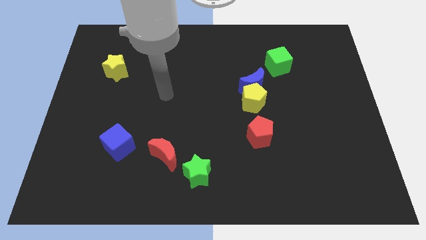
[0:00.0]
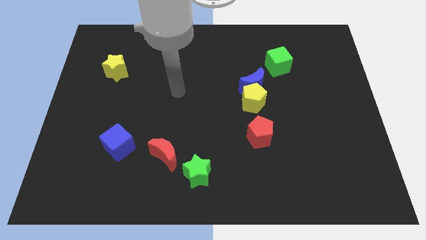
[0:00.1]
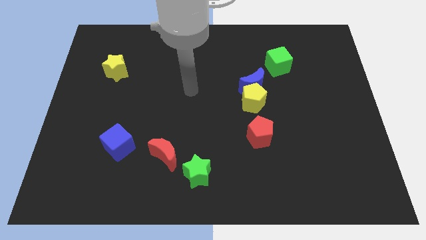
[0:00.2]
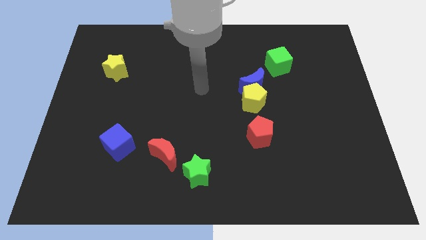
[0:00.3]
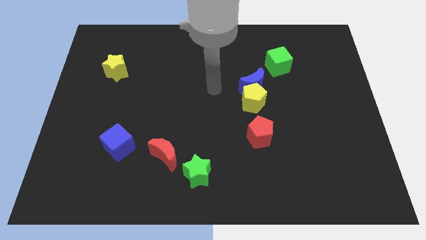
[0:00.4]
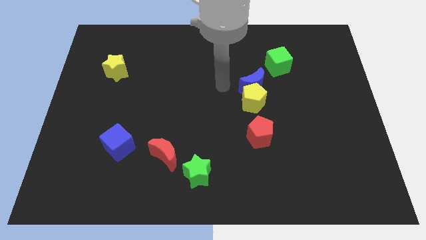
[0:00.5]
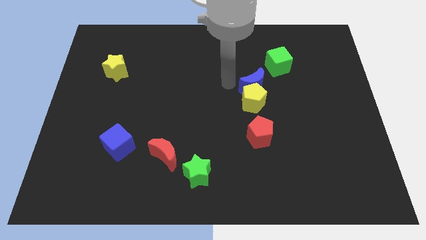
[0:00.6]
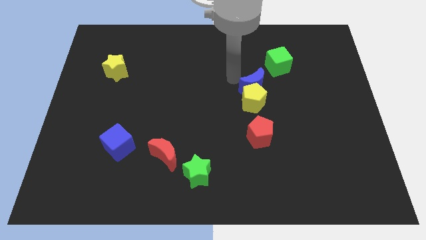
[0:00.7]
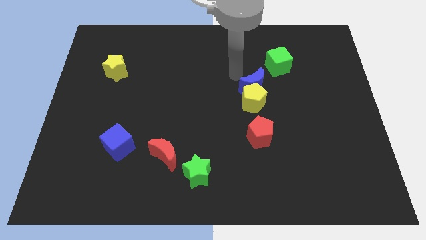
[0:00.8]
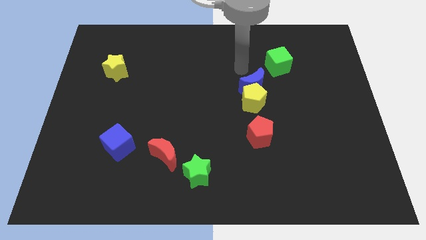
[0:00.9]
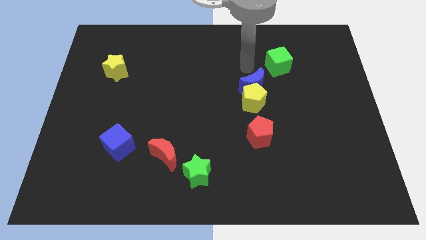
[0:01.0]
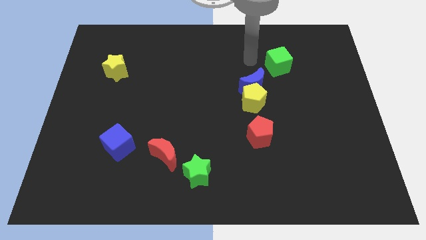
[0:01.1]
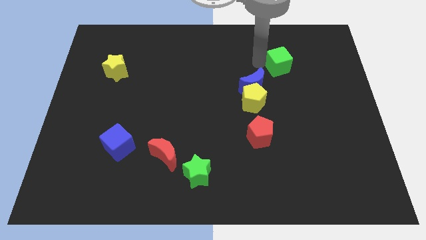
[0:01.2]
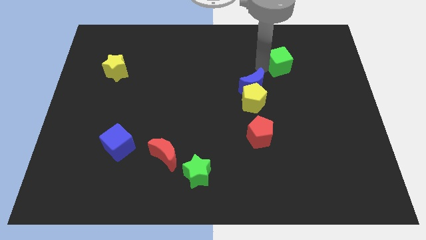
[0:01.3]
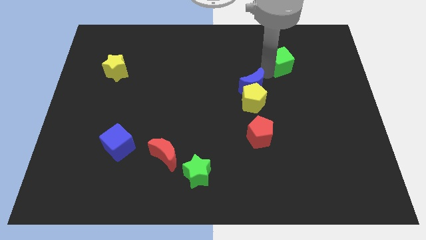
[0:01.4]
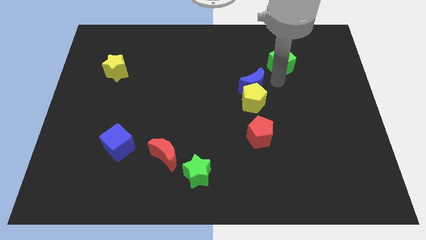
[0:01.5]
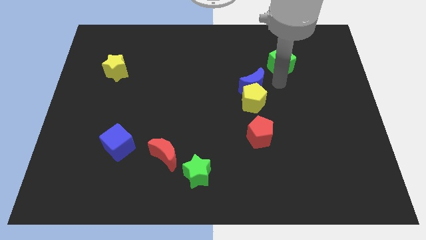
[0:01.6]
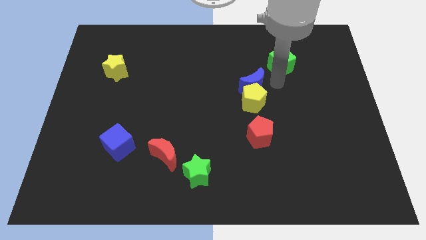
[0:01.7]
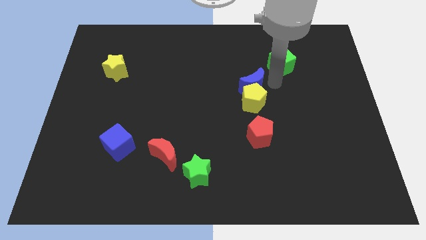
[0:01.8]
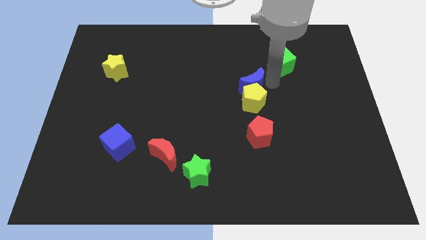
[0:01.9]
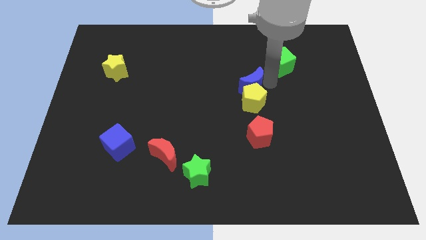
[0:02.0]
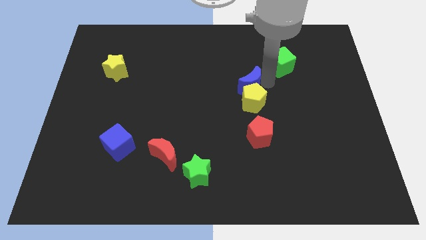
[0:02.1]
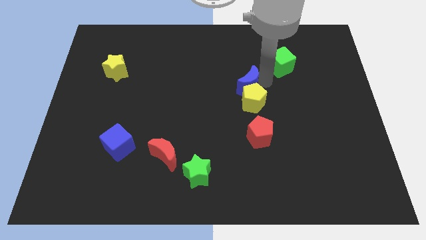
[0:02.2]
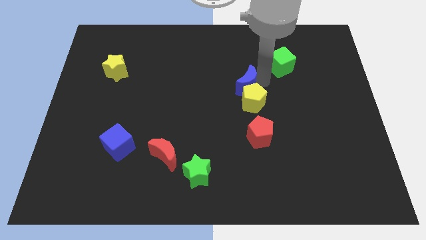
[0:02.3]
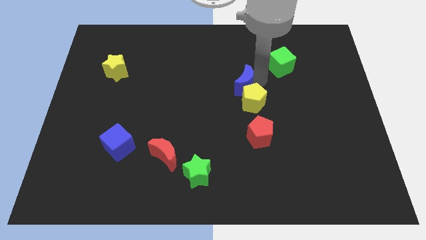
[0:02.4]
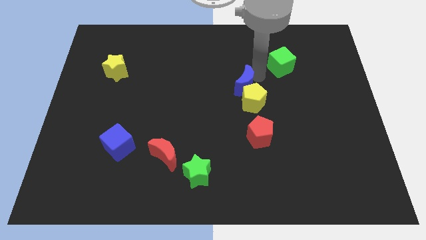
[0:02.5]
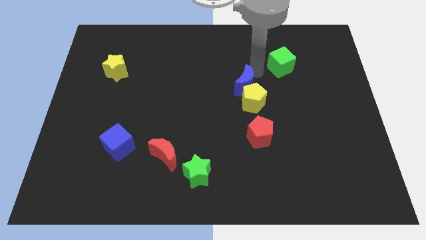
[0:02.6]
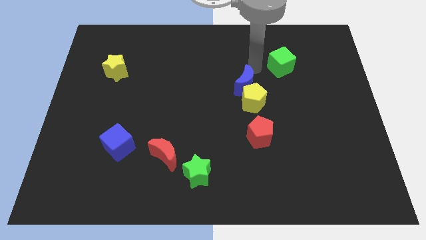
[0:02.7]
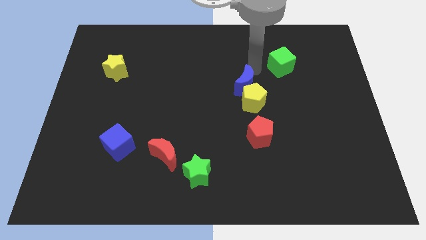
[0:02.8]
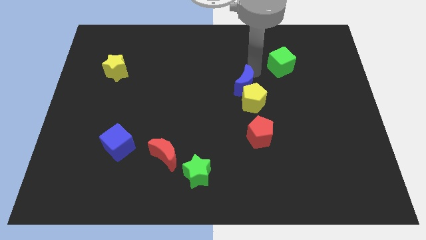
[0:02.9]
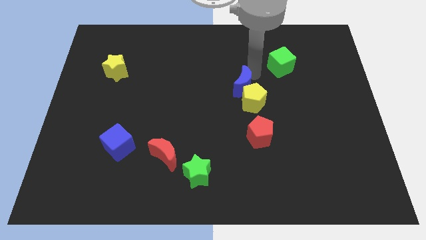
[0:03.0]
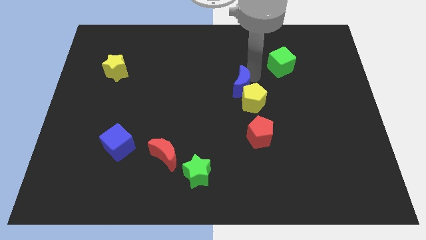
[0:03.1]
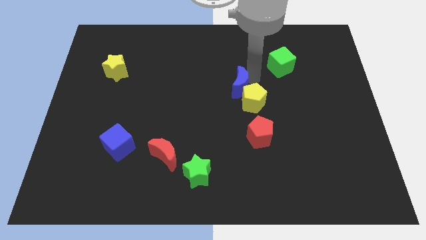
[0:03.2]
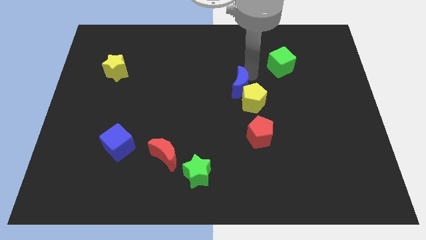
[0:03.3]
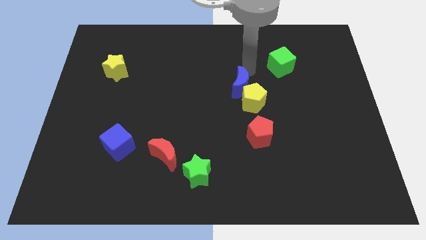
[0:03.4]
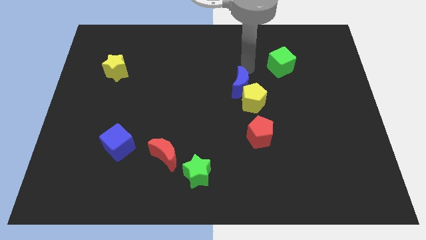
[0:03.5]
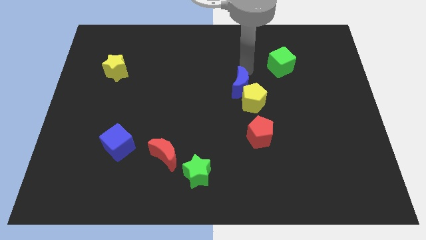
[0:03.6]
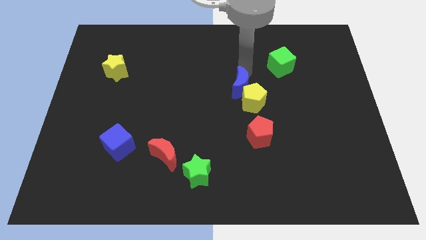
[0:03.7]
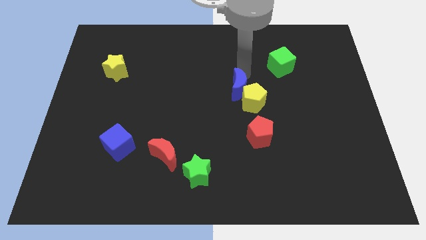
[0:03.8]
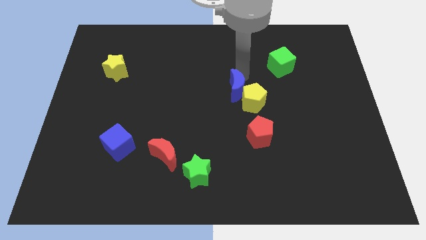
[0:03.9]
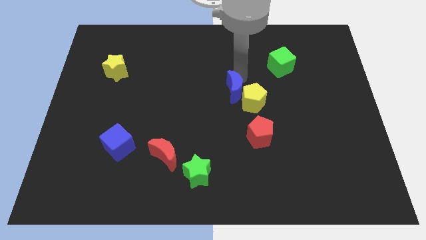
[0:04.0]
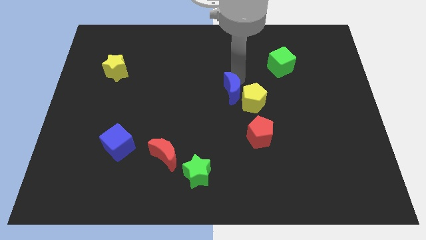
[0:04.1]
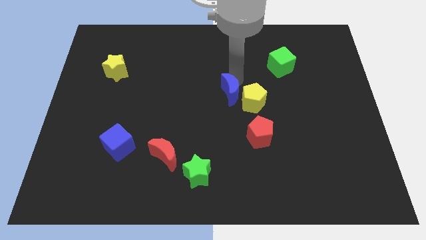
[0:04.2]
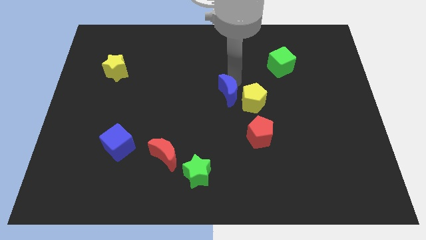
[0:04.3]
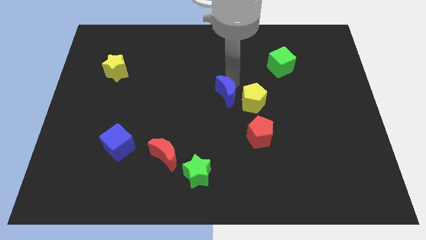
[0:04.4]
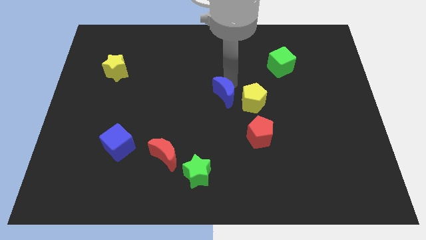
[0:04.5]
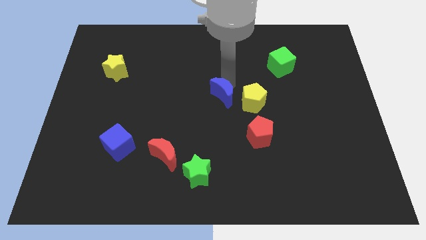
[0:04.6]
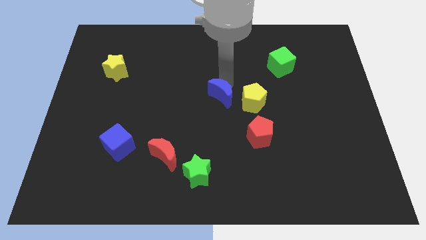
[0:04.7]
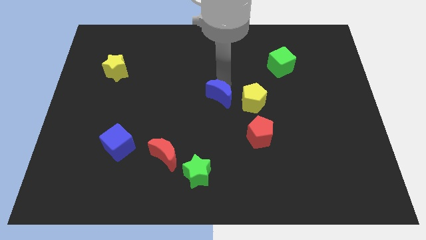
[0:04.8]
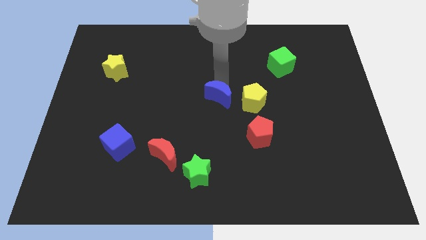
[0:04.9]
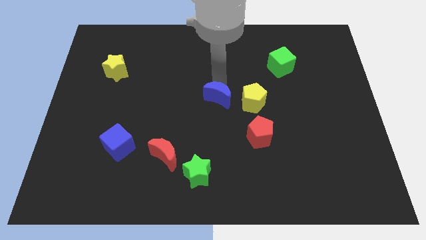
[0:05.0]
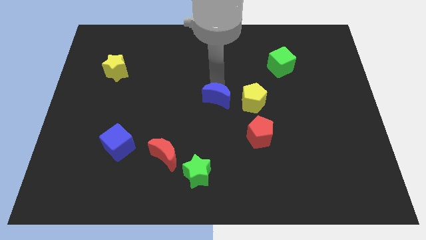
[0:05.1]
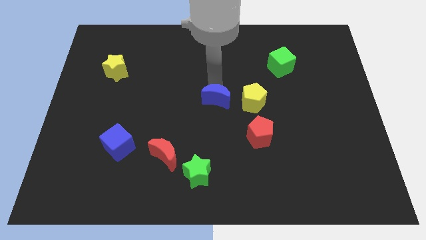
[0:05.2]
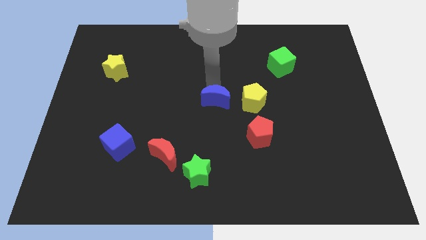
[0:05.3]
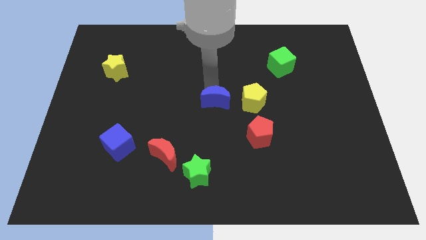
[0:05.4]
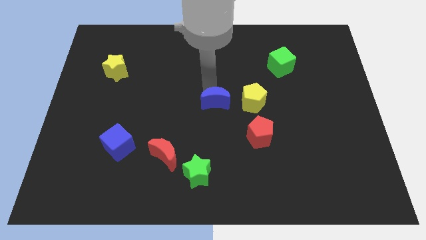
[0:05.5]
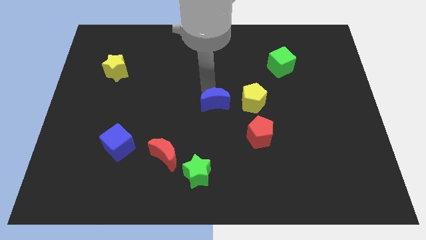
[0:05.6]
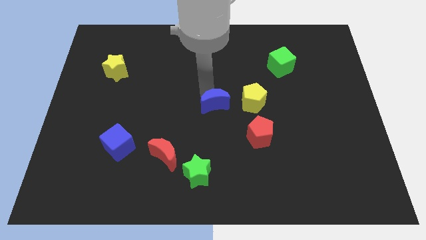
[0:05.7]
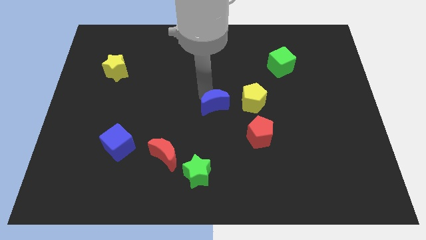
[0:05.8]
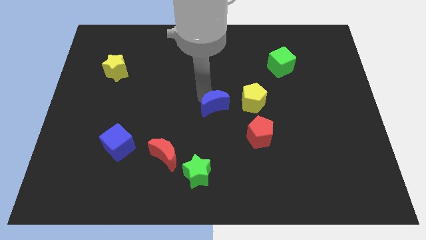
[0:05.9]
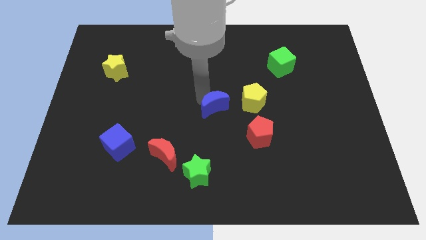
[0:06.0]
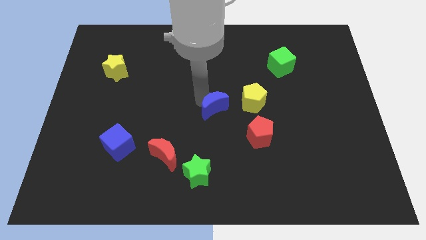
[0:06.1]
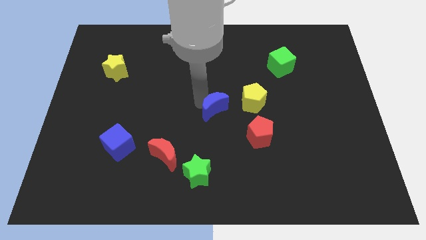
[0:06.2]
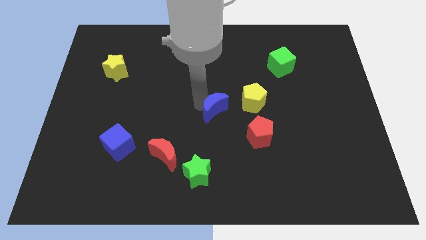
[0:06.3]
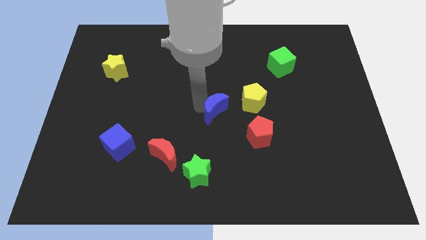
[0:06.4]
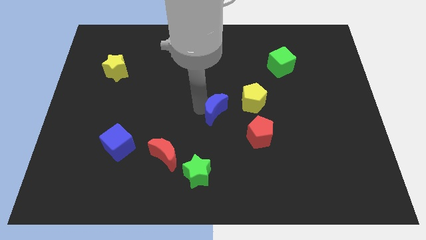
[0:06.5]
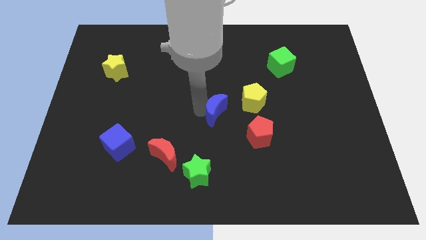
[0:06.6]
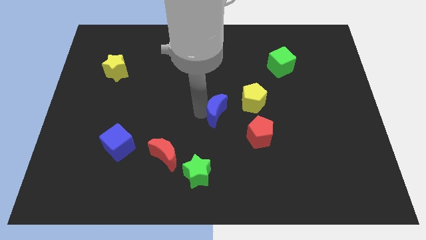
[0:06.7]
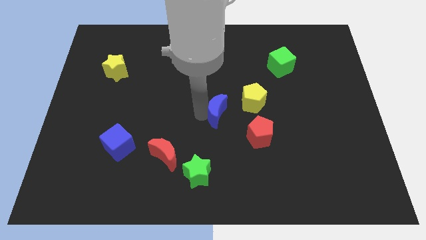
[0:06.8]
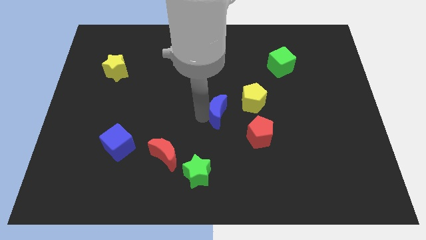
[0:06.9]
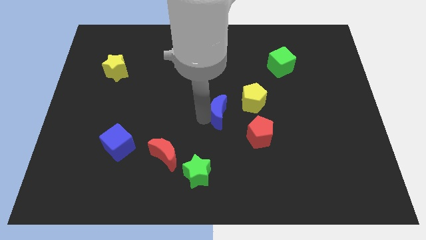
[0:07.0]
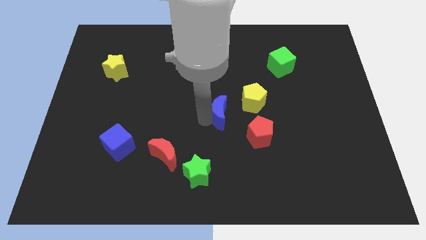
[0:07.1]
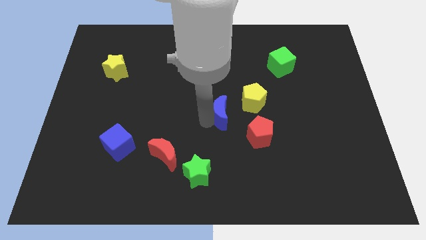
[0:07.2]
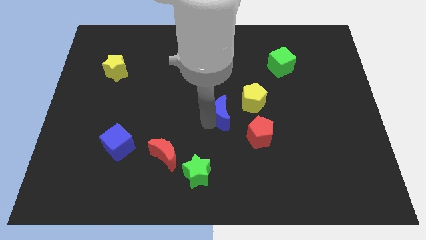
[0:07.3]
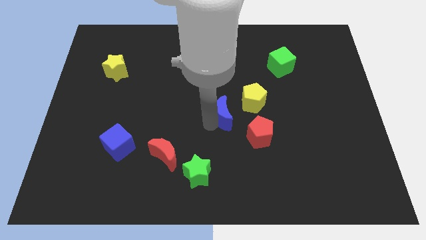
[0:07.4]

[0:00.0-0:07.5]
slightly move the blue moon down

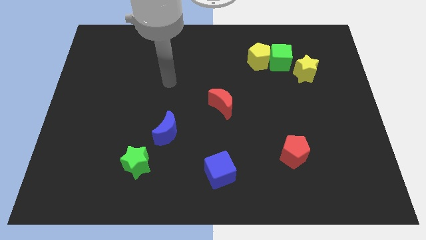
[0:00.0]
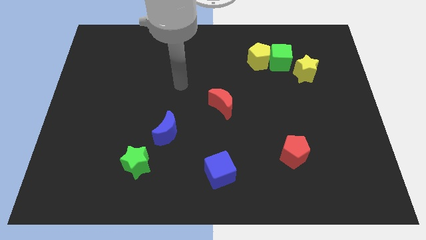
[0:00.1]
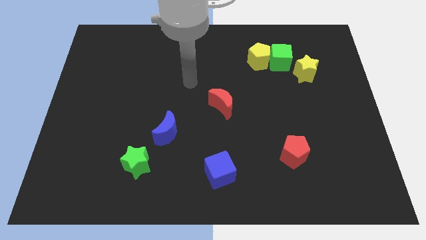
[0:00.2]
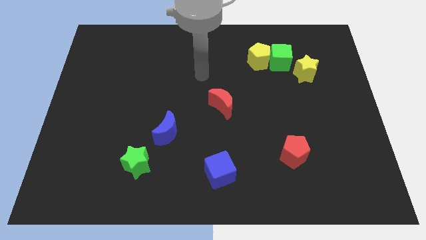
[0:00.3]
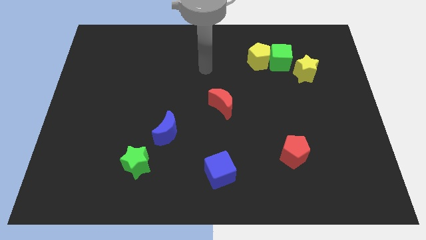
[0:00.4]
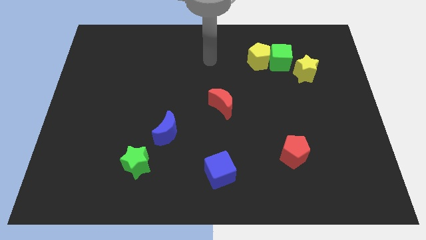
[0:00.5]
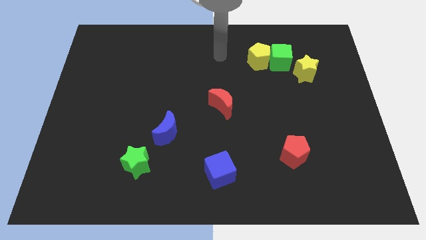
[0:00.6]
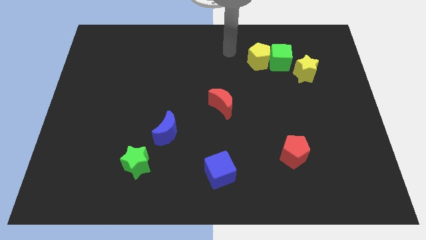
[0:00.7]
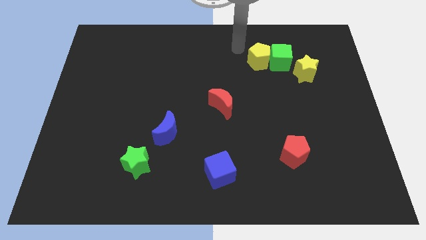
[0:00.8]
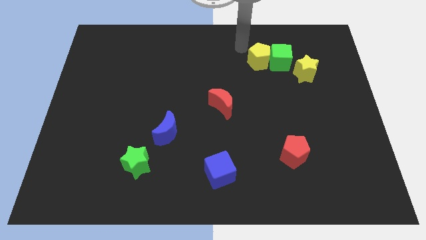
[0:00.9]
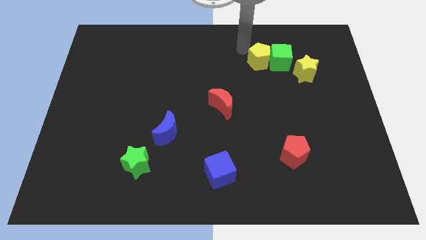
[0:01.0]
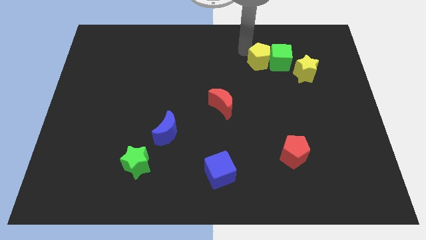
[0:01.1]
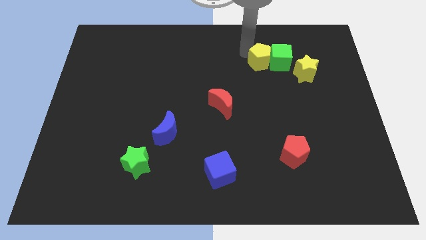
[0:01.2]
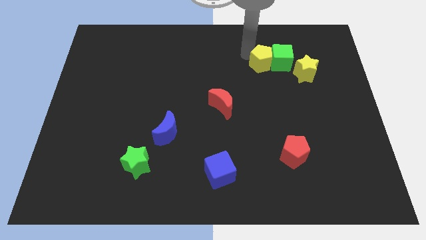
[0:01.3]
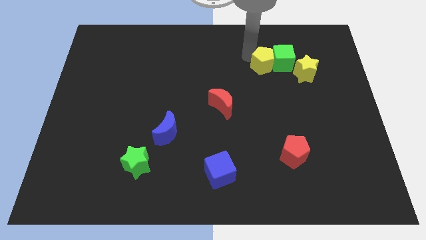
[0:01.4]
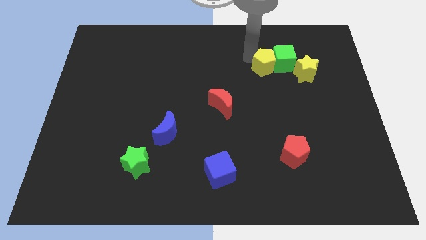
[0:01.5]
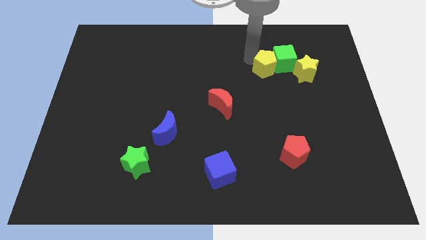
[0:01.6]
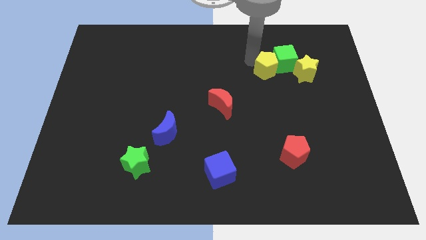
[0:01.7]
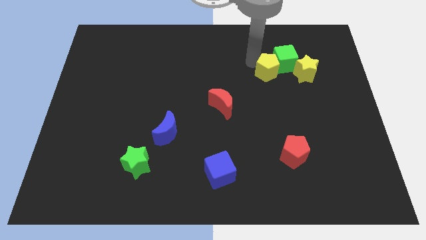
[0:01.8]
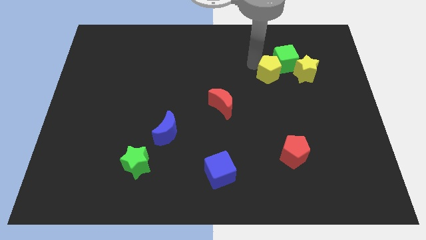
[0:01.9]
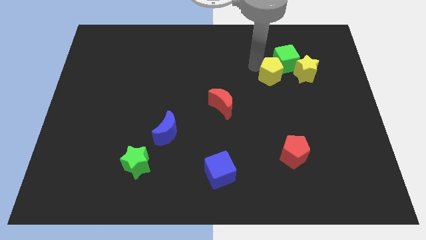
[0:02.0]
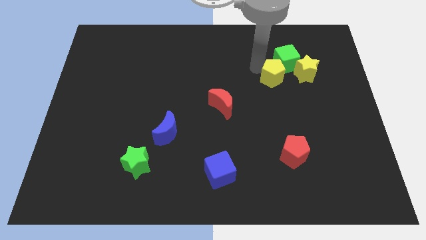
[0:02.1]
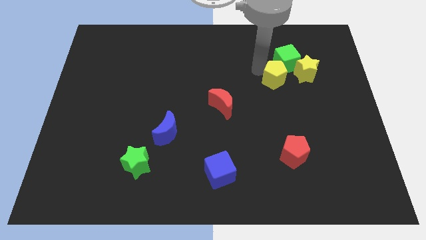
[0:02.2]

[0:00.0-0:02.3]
slightly slide the yellow pentagon down and then to the right
